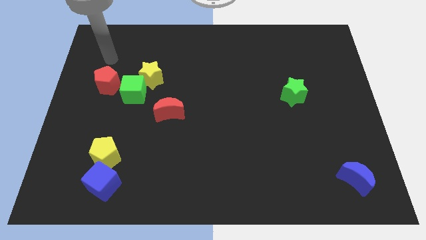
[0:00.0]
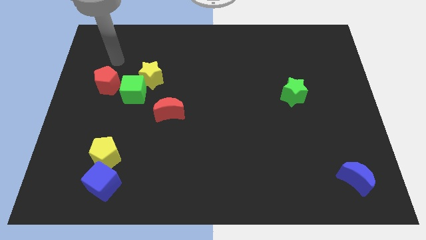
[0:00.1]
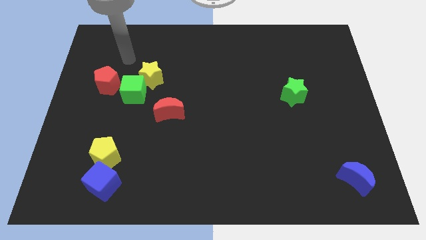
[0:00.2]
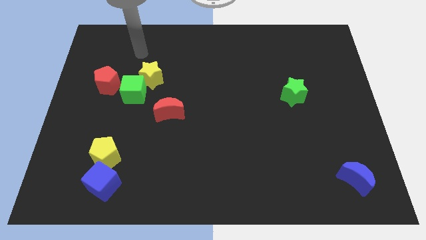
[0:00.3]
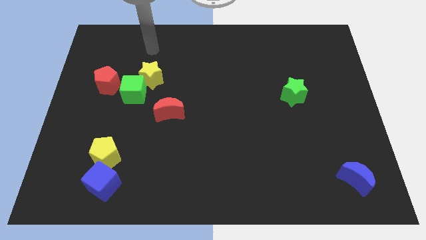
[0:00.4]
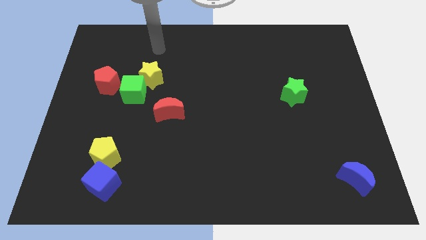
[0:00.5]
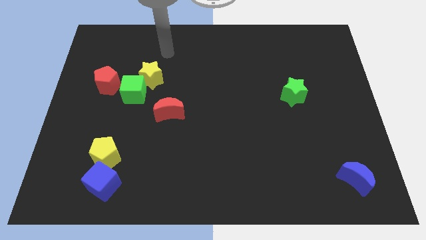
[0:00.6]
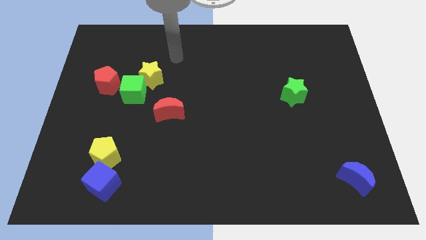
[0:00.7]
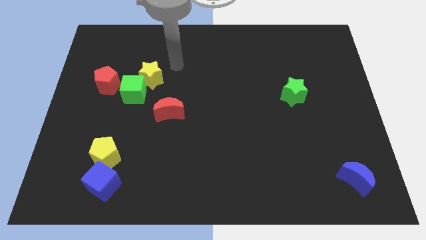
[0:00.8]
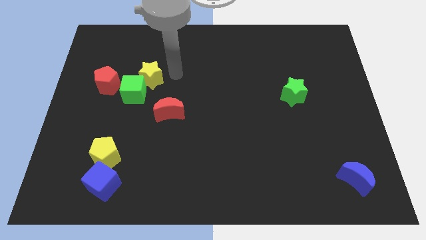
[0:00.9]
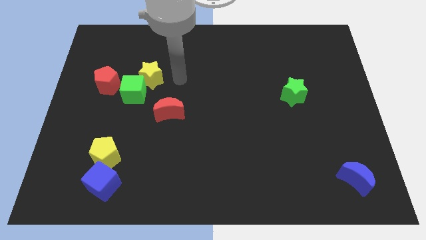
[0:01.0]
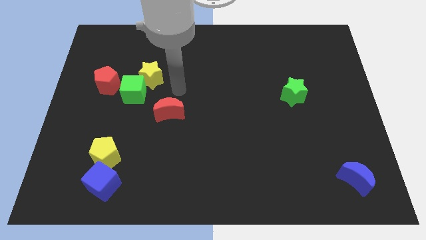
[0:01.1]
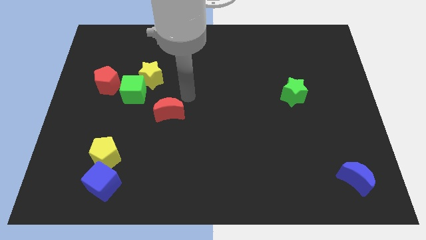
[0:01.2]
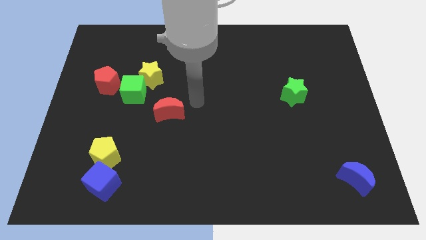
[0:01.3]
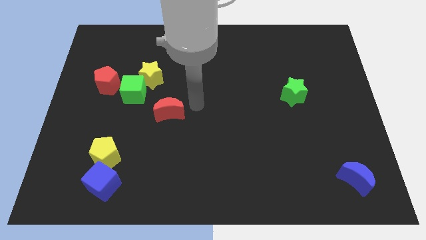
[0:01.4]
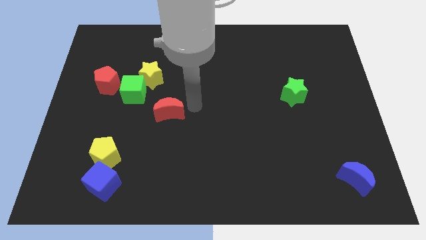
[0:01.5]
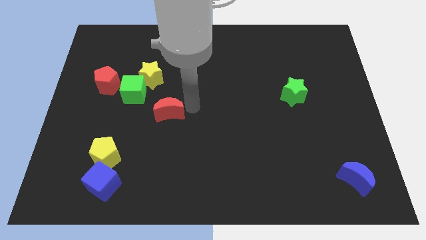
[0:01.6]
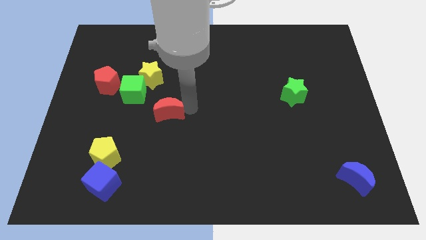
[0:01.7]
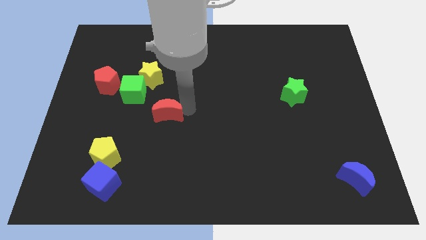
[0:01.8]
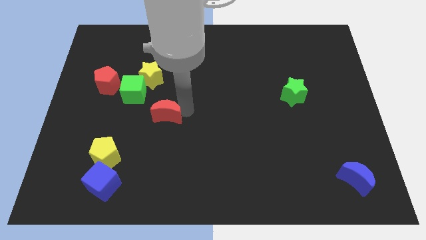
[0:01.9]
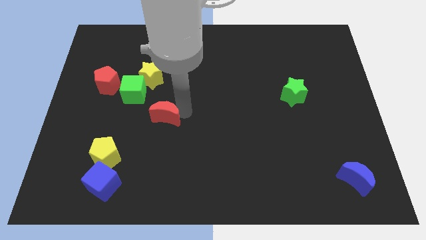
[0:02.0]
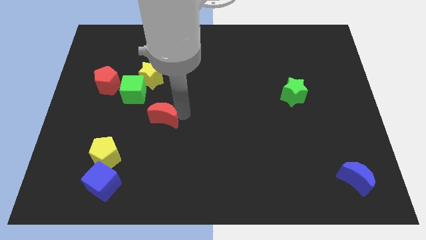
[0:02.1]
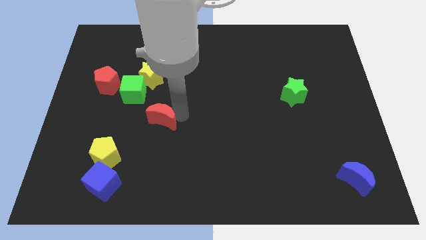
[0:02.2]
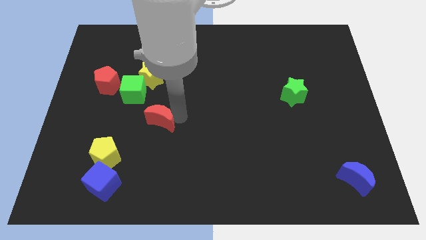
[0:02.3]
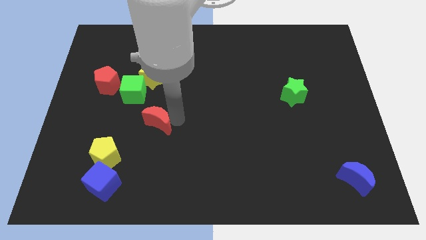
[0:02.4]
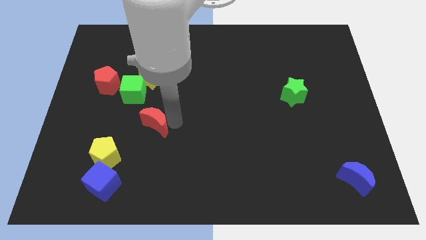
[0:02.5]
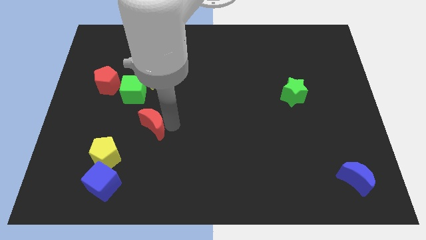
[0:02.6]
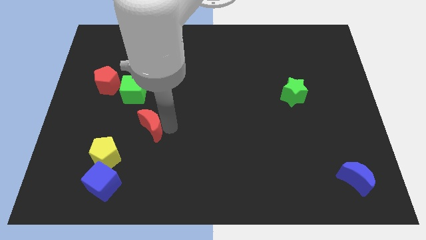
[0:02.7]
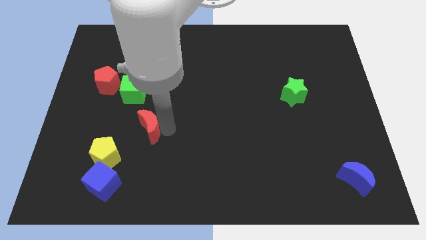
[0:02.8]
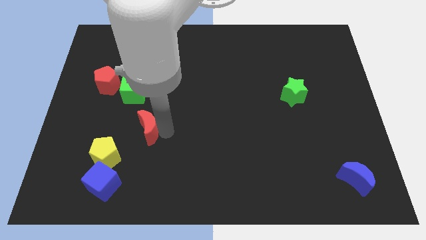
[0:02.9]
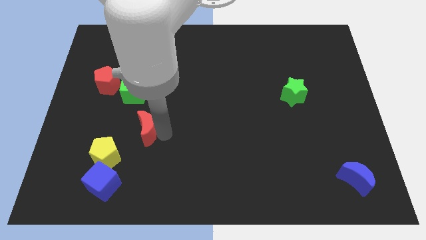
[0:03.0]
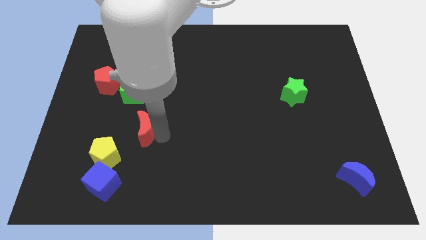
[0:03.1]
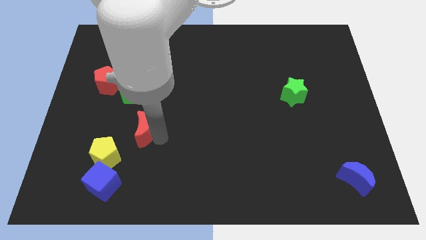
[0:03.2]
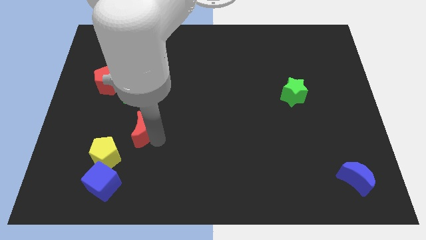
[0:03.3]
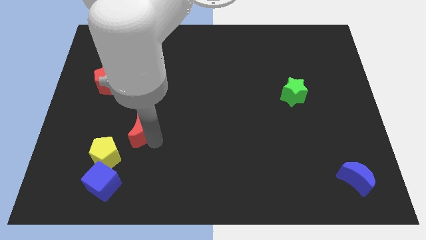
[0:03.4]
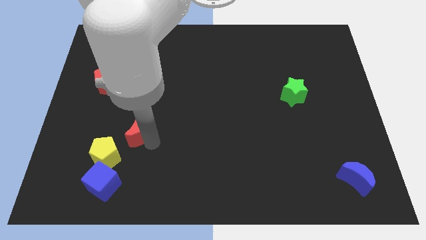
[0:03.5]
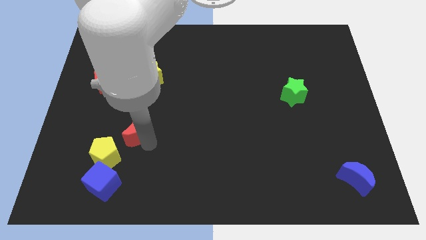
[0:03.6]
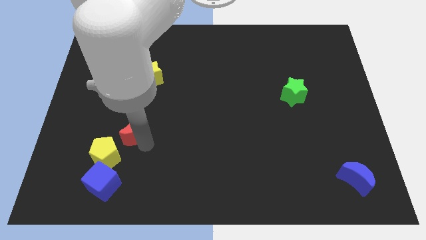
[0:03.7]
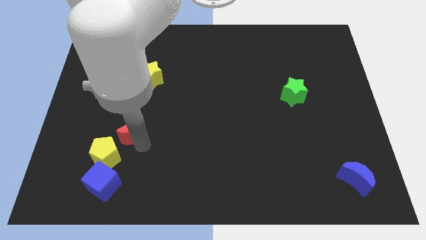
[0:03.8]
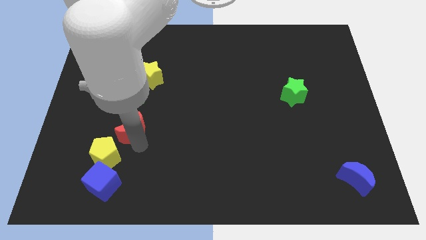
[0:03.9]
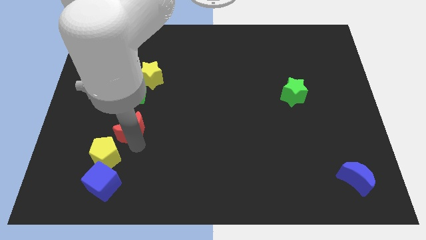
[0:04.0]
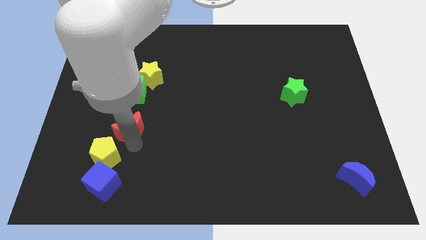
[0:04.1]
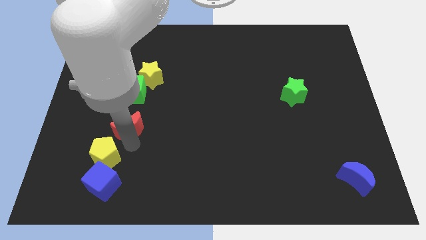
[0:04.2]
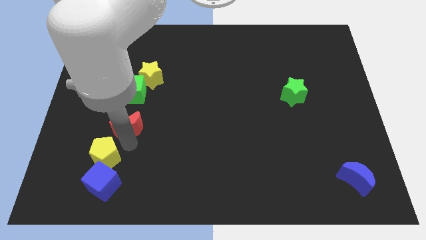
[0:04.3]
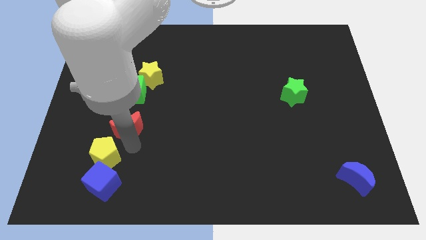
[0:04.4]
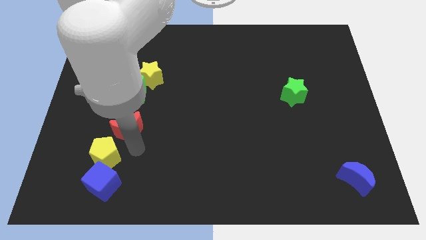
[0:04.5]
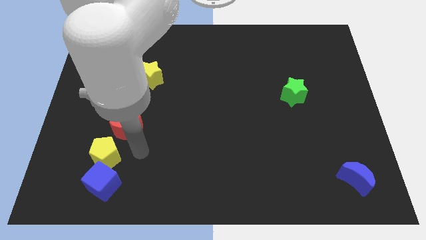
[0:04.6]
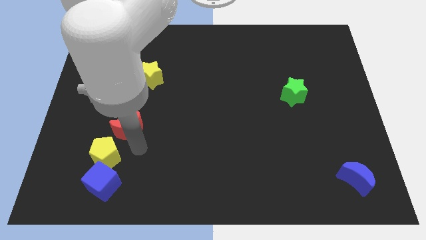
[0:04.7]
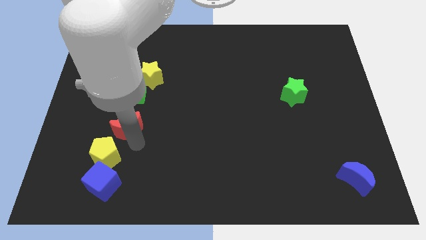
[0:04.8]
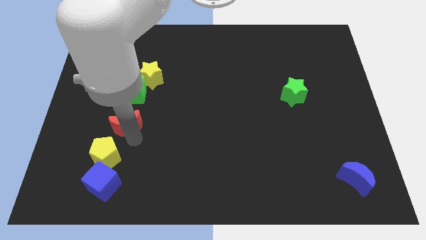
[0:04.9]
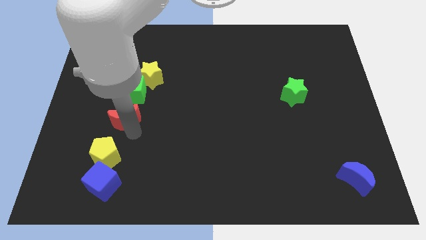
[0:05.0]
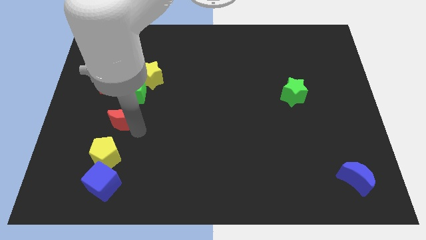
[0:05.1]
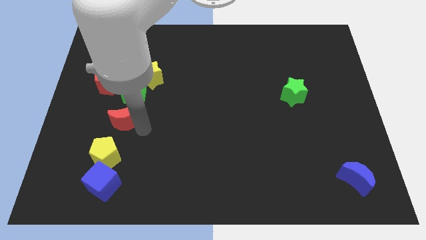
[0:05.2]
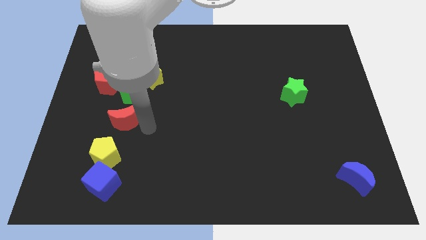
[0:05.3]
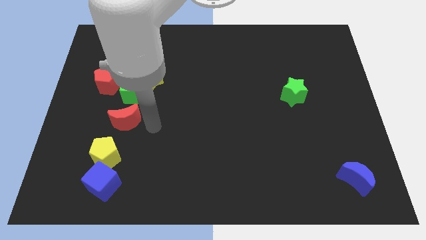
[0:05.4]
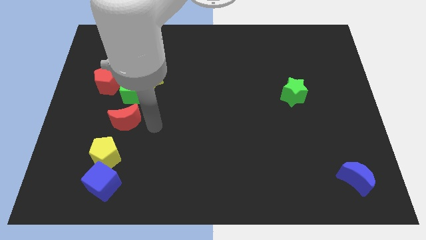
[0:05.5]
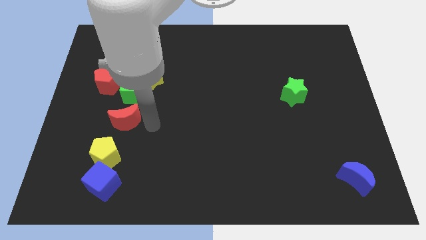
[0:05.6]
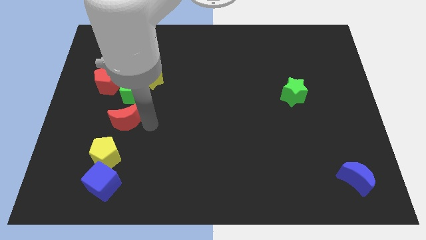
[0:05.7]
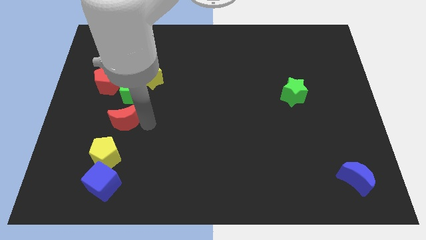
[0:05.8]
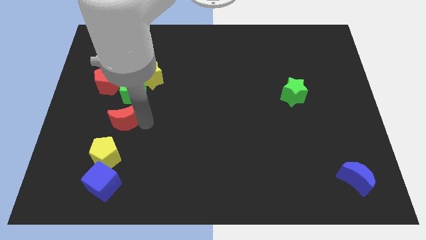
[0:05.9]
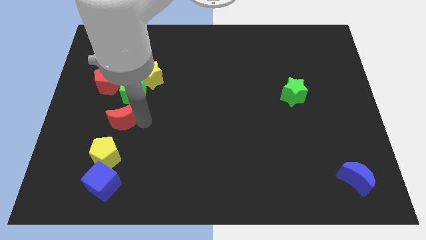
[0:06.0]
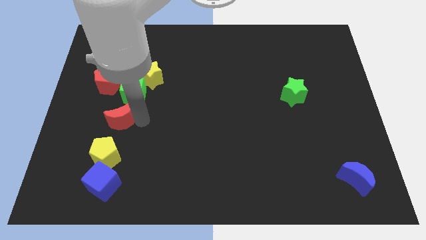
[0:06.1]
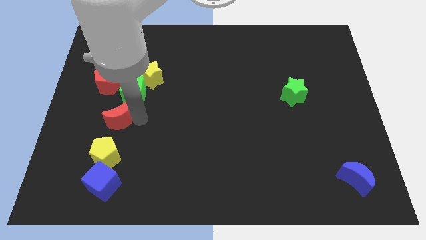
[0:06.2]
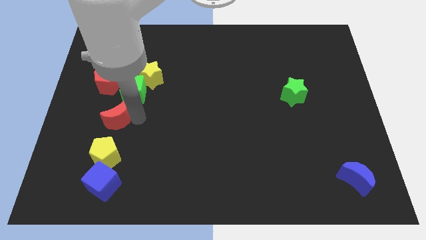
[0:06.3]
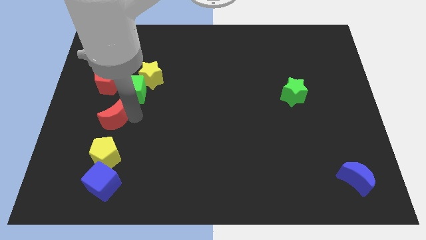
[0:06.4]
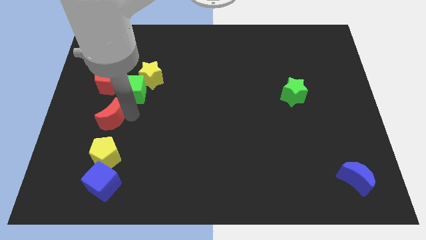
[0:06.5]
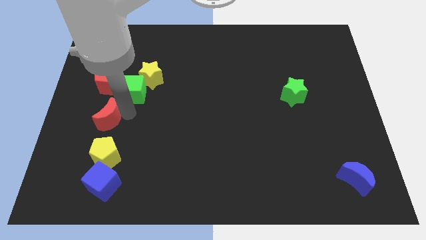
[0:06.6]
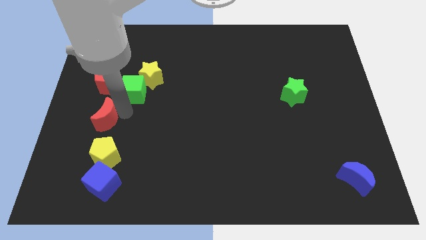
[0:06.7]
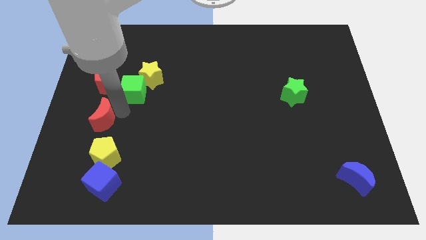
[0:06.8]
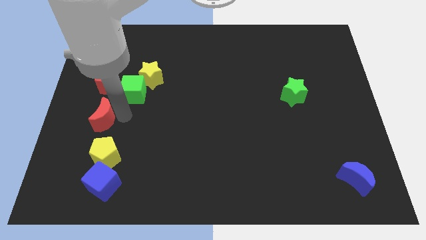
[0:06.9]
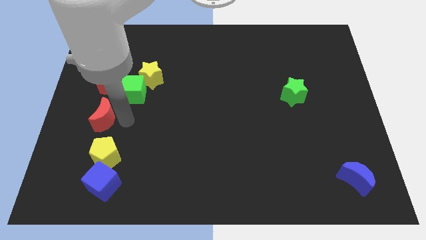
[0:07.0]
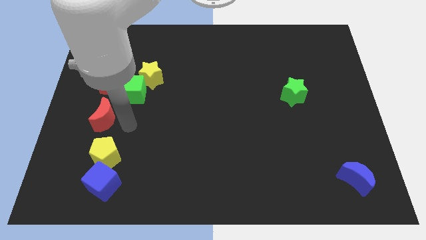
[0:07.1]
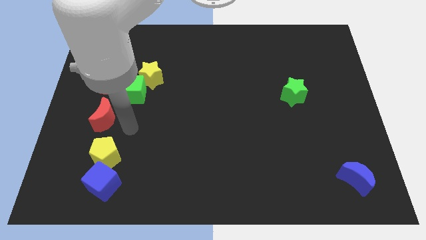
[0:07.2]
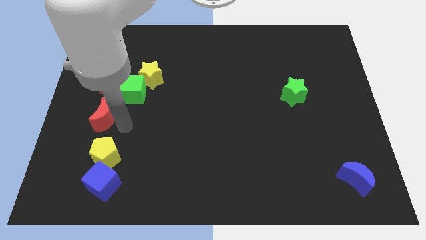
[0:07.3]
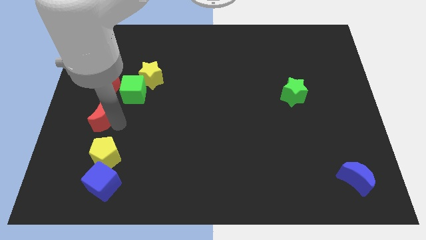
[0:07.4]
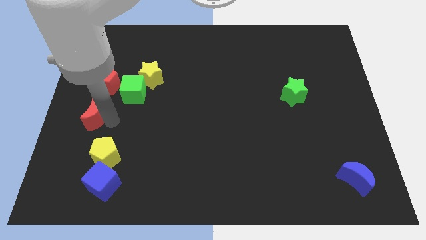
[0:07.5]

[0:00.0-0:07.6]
push the red moon to the left side
